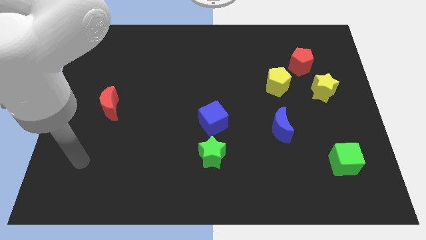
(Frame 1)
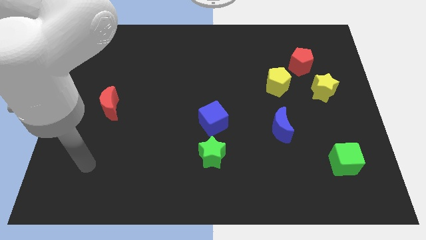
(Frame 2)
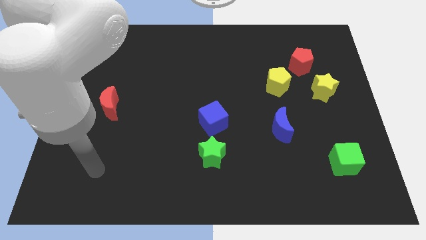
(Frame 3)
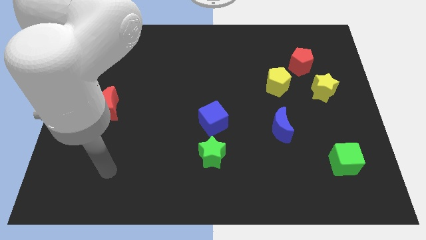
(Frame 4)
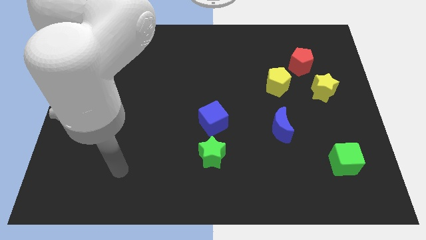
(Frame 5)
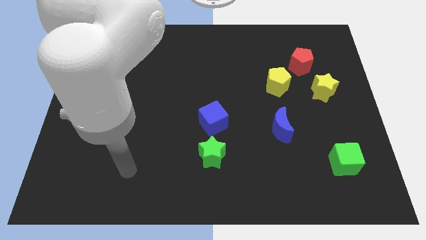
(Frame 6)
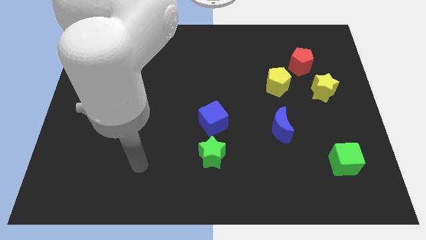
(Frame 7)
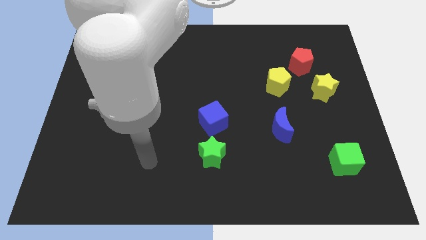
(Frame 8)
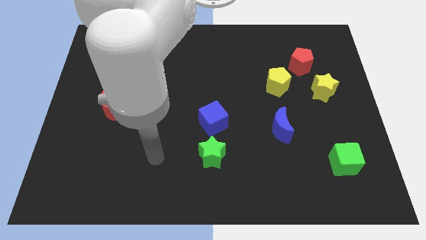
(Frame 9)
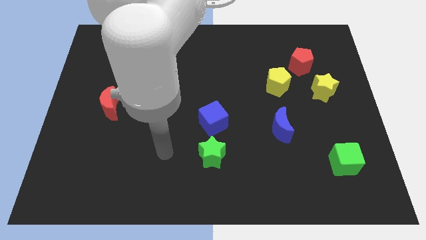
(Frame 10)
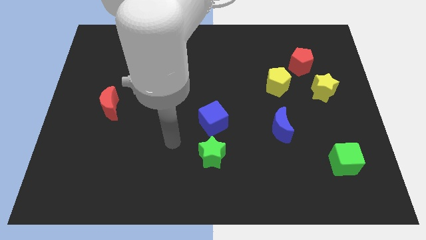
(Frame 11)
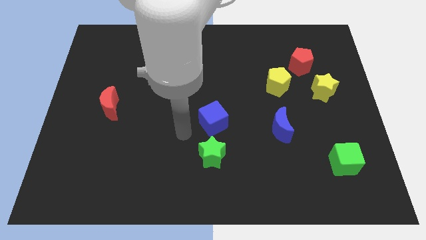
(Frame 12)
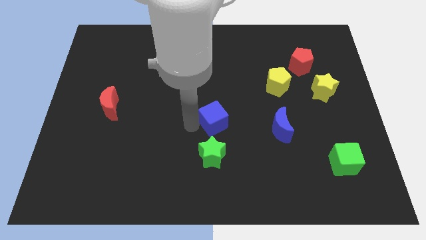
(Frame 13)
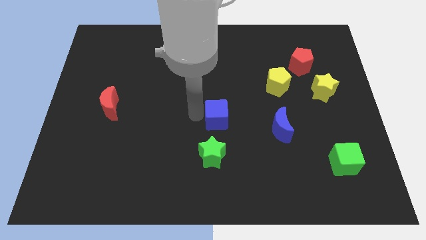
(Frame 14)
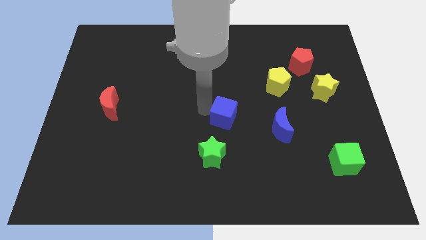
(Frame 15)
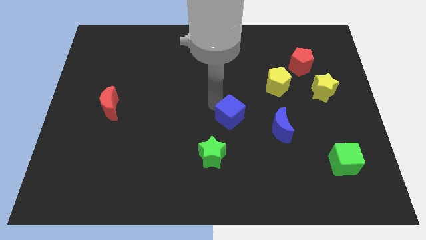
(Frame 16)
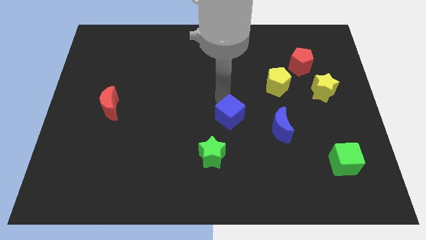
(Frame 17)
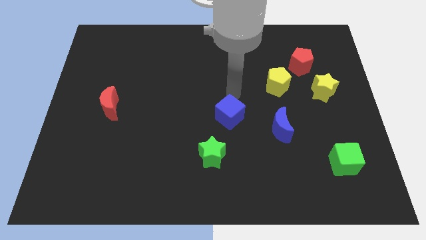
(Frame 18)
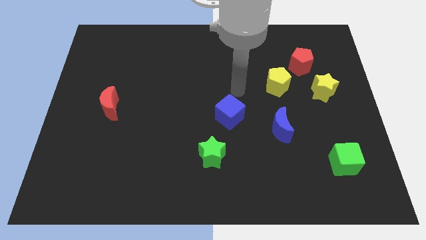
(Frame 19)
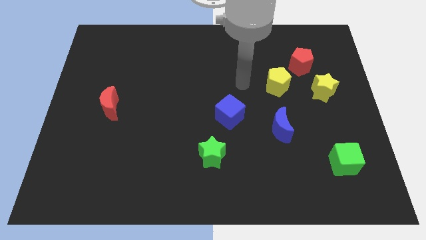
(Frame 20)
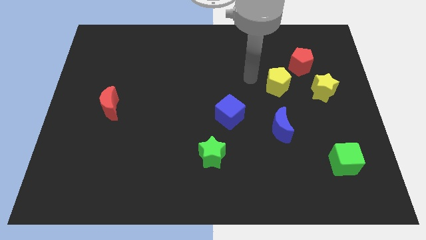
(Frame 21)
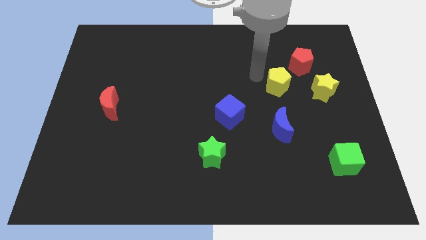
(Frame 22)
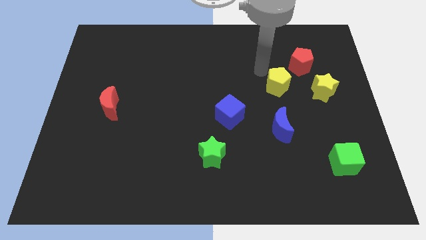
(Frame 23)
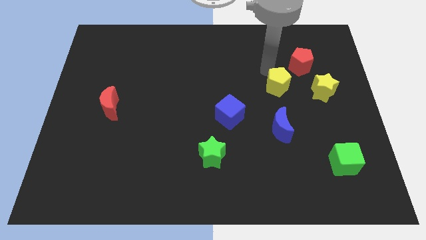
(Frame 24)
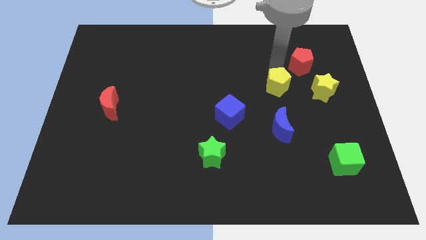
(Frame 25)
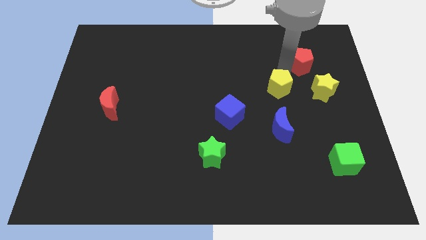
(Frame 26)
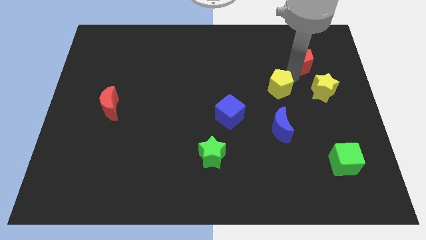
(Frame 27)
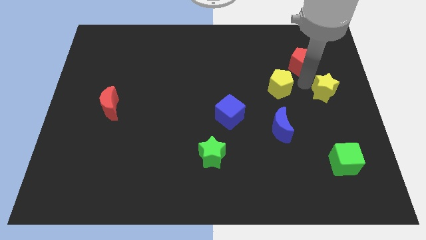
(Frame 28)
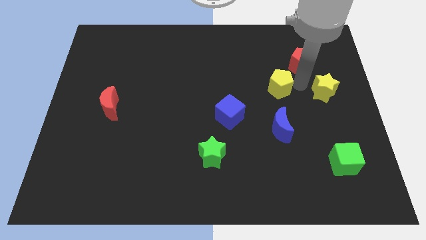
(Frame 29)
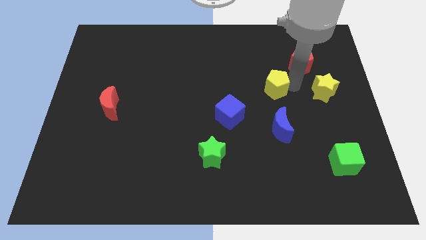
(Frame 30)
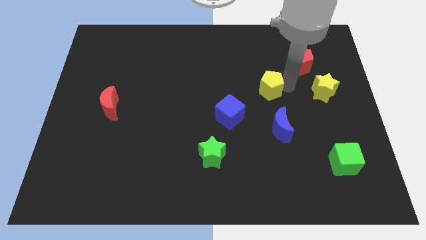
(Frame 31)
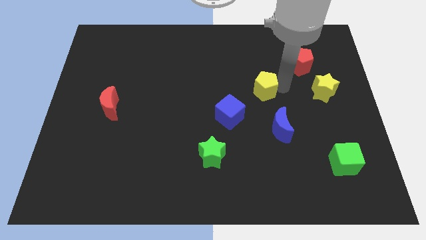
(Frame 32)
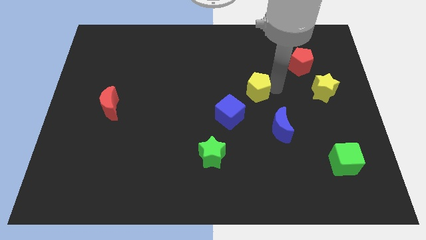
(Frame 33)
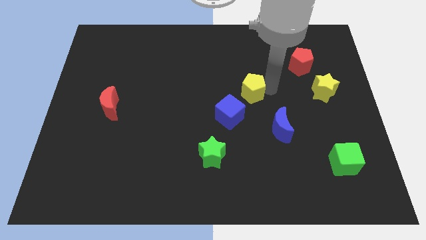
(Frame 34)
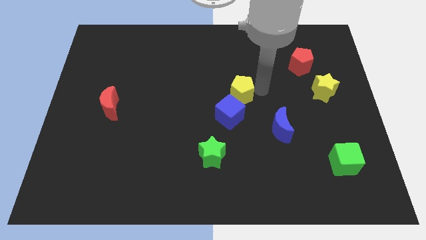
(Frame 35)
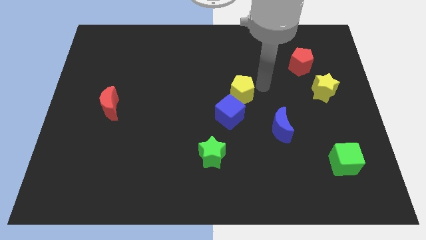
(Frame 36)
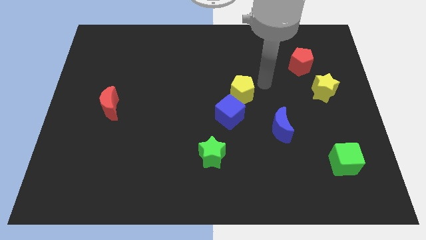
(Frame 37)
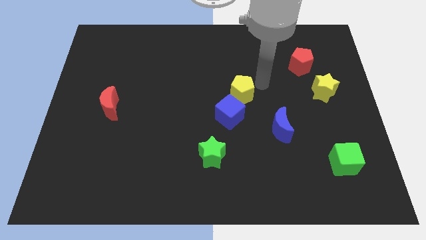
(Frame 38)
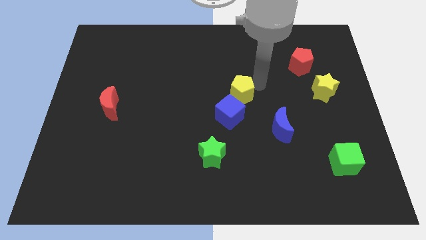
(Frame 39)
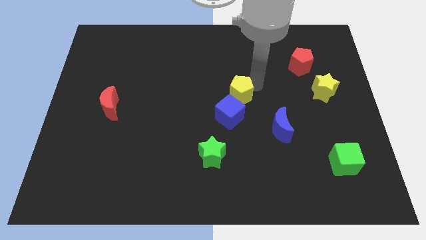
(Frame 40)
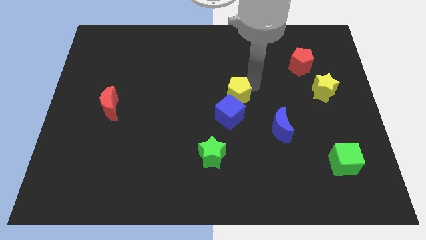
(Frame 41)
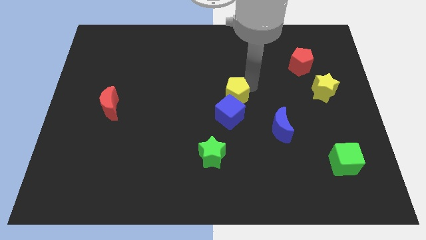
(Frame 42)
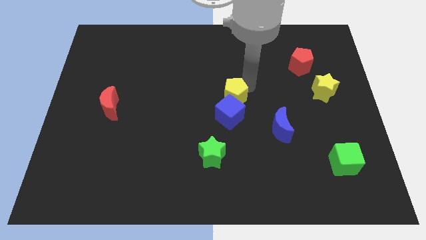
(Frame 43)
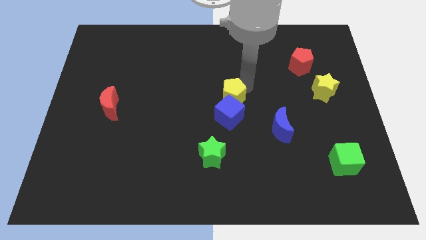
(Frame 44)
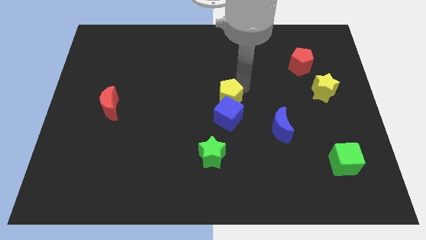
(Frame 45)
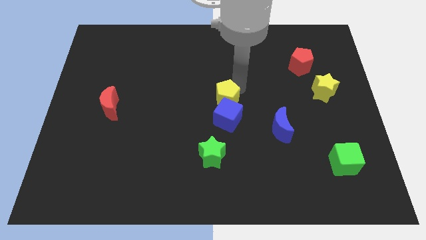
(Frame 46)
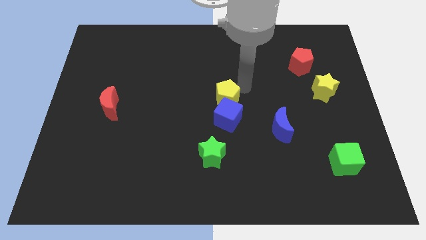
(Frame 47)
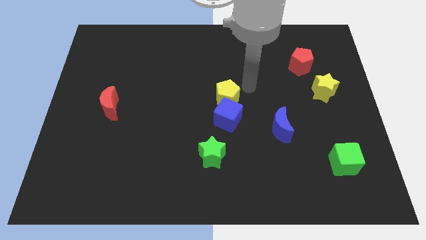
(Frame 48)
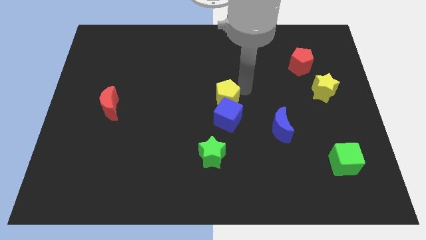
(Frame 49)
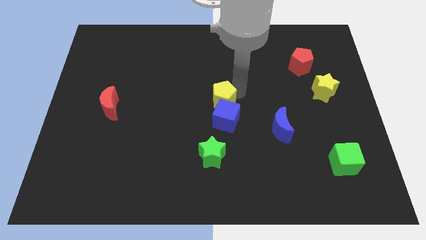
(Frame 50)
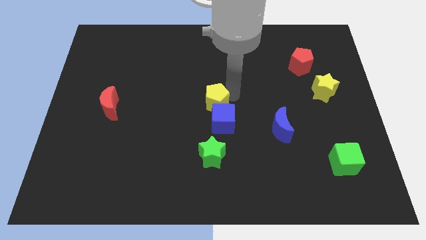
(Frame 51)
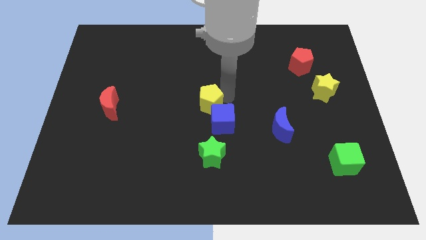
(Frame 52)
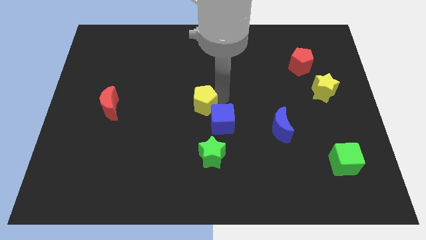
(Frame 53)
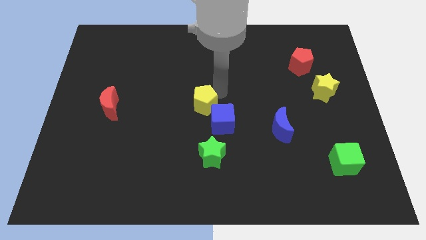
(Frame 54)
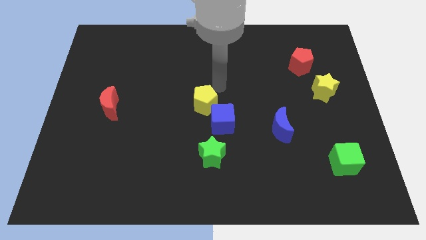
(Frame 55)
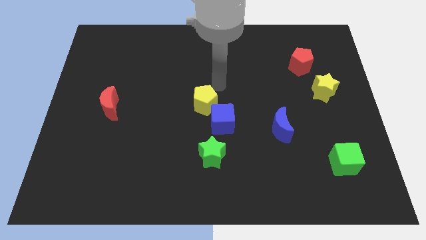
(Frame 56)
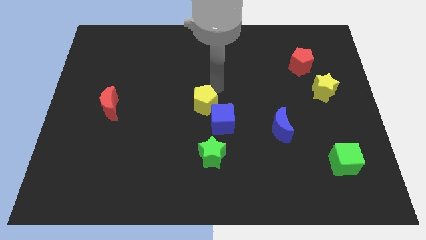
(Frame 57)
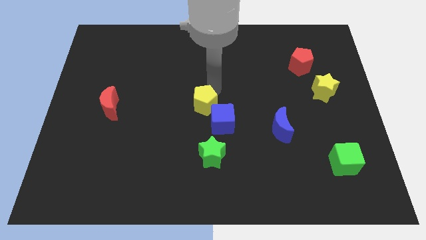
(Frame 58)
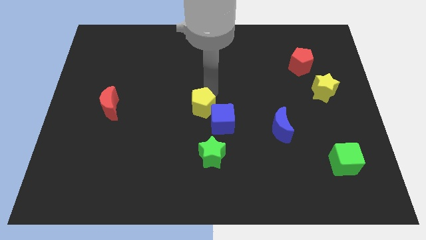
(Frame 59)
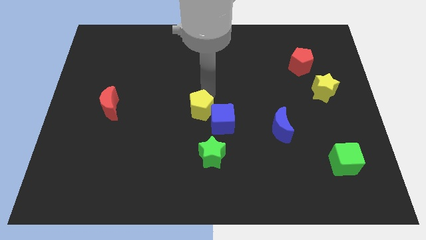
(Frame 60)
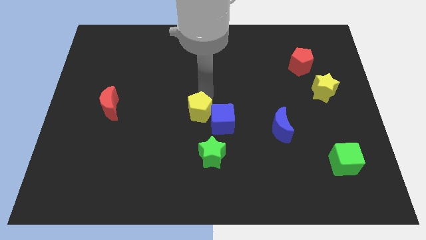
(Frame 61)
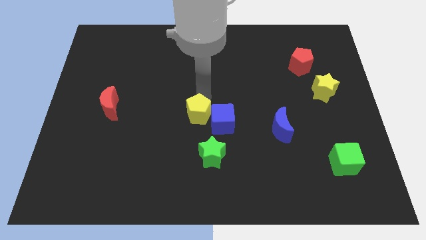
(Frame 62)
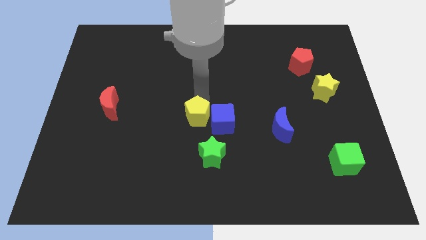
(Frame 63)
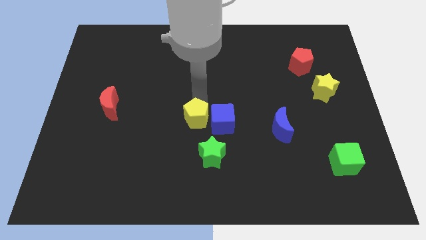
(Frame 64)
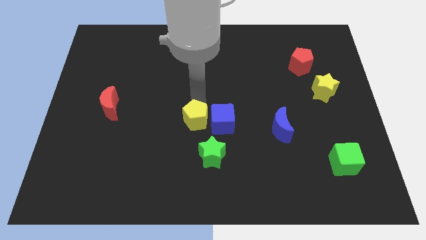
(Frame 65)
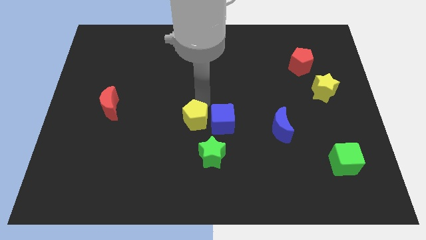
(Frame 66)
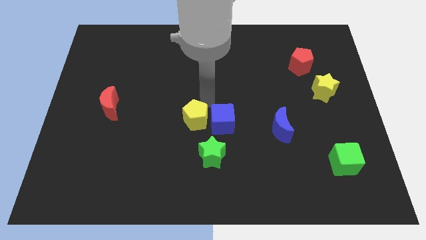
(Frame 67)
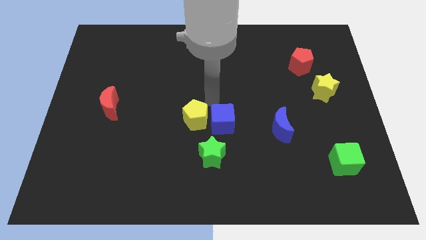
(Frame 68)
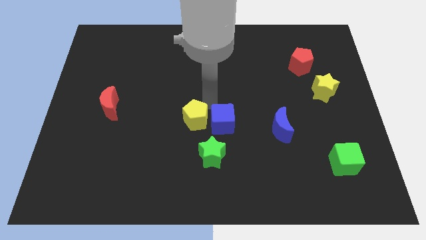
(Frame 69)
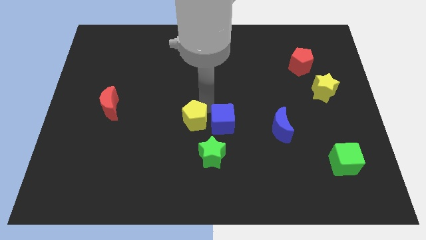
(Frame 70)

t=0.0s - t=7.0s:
slide the yellow pentagon down and to the left diagonally

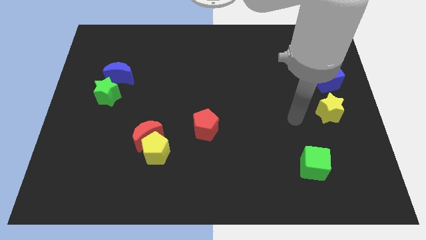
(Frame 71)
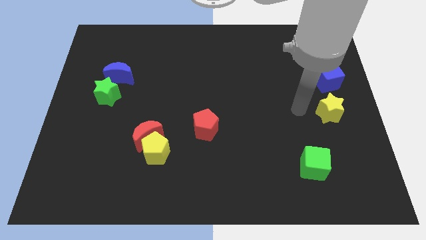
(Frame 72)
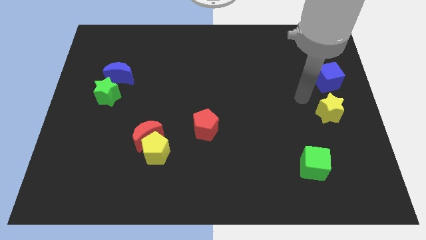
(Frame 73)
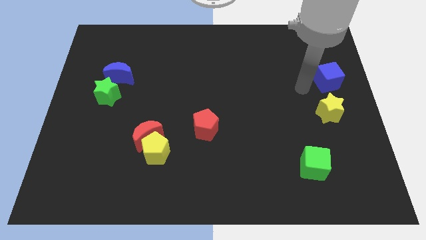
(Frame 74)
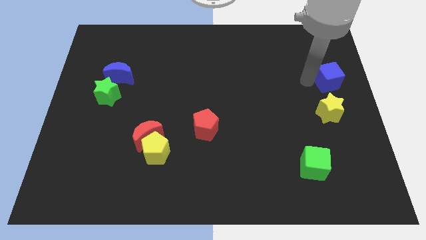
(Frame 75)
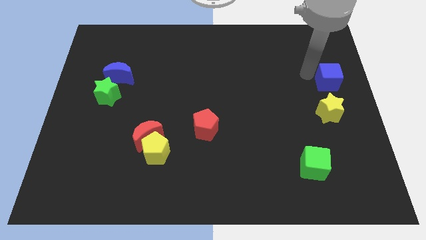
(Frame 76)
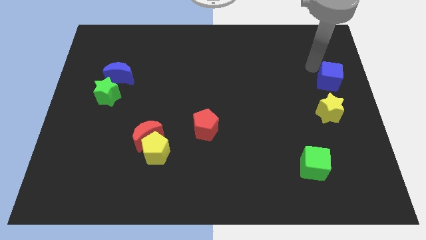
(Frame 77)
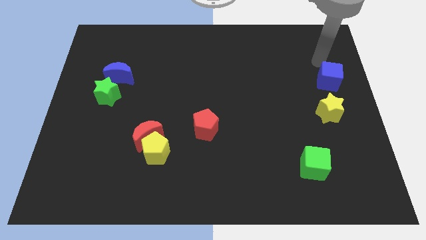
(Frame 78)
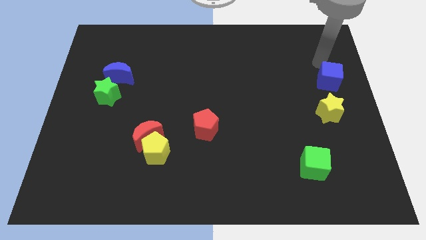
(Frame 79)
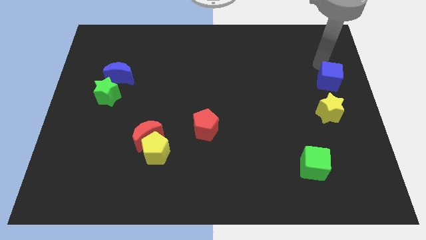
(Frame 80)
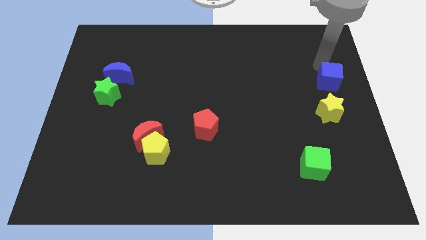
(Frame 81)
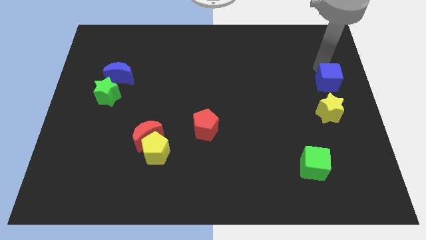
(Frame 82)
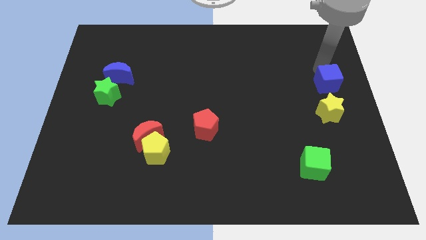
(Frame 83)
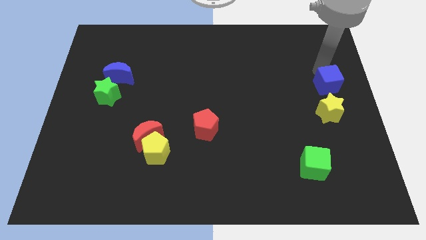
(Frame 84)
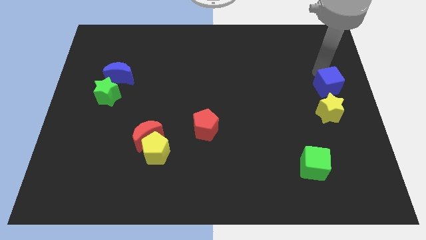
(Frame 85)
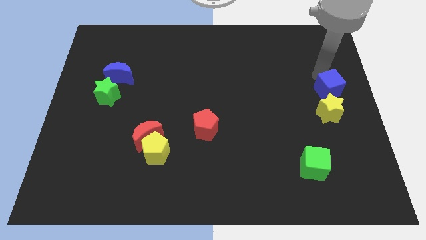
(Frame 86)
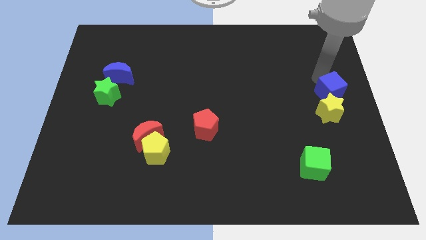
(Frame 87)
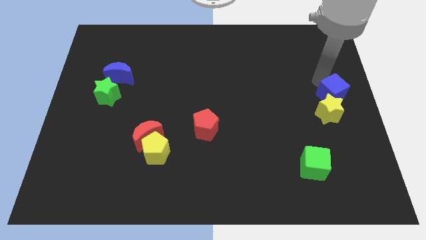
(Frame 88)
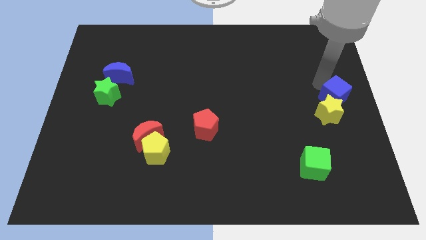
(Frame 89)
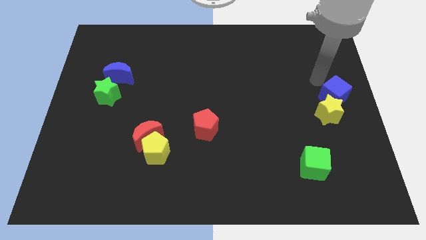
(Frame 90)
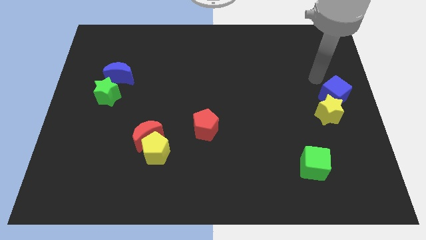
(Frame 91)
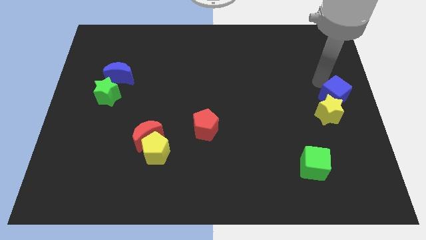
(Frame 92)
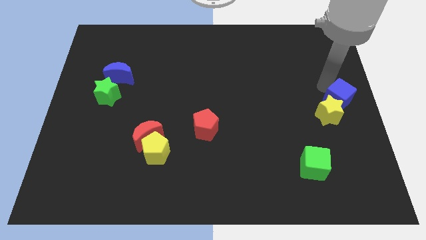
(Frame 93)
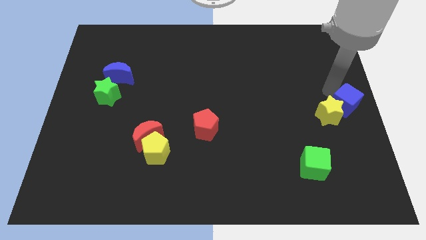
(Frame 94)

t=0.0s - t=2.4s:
move the blue cube downwards a little
